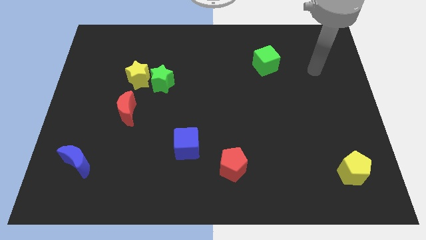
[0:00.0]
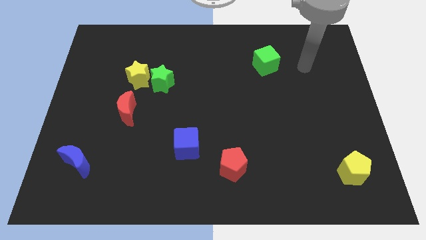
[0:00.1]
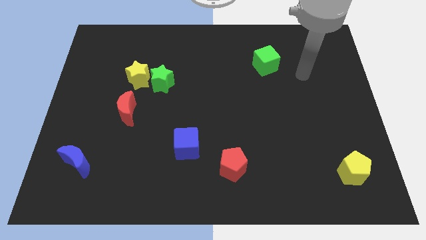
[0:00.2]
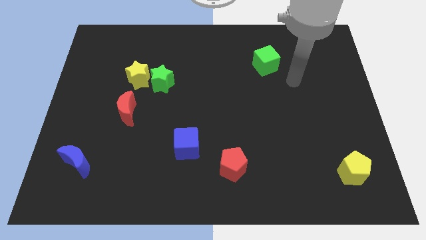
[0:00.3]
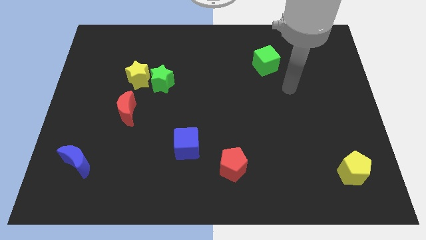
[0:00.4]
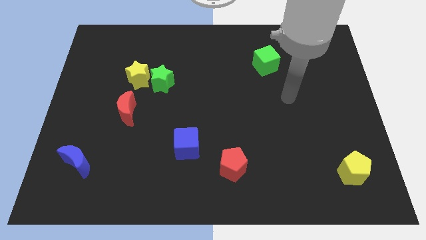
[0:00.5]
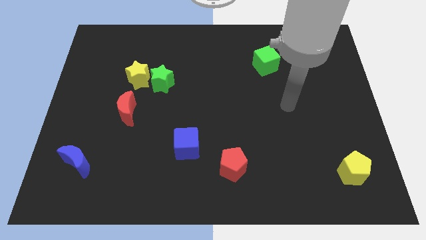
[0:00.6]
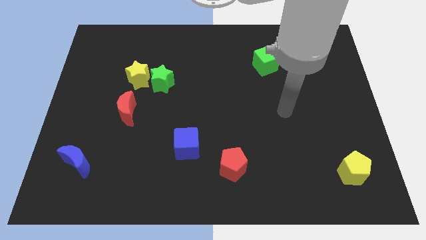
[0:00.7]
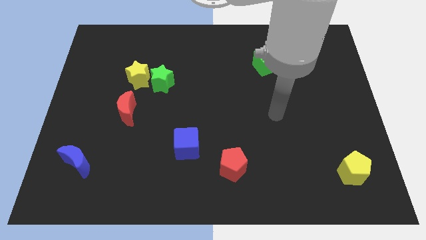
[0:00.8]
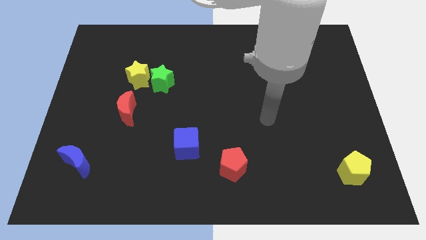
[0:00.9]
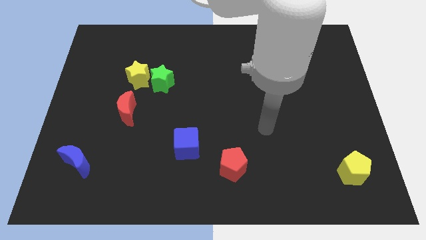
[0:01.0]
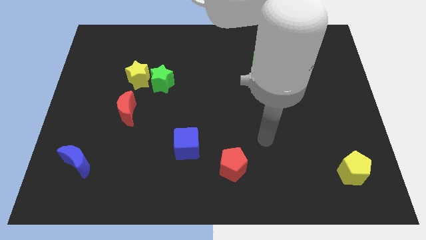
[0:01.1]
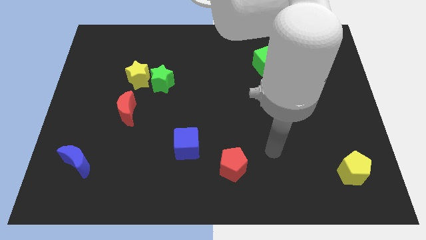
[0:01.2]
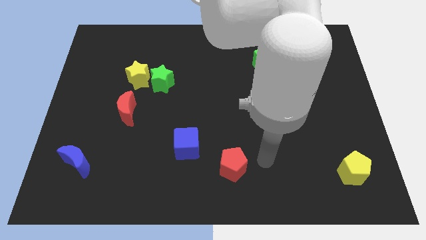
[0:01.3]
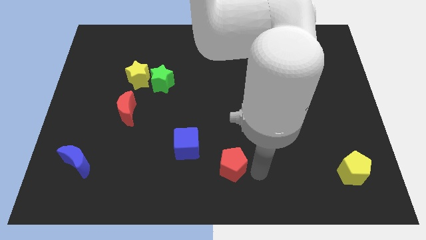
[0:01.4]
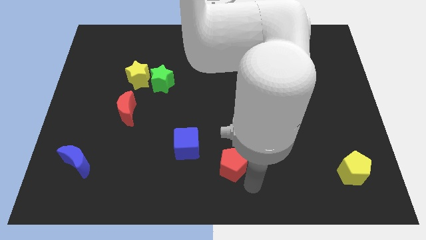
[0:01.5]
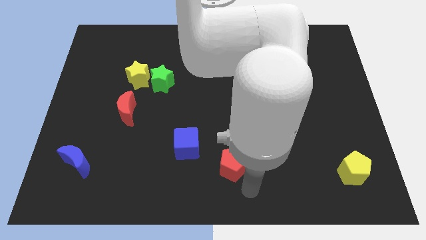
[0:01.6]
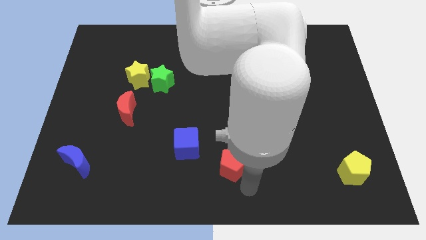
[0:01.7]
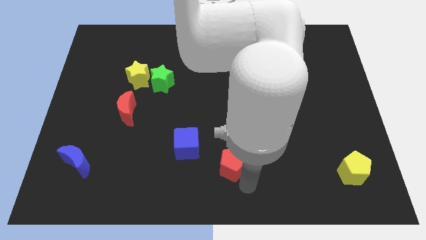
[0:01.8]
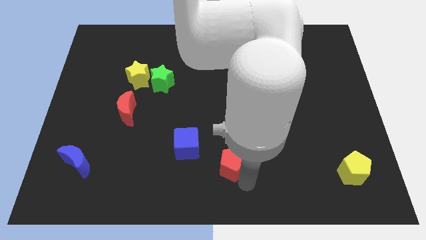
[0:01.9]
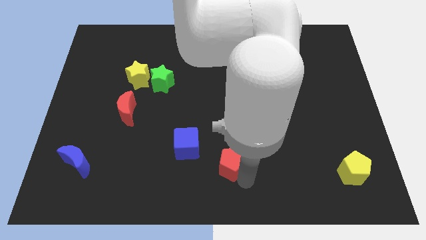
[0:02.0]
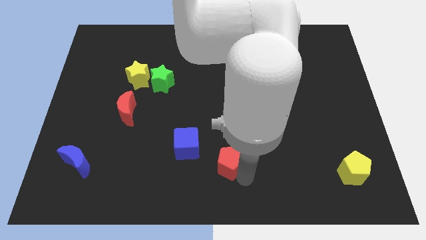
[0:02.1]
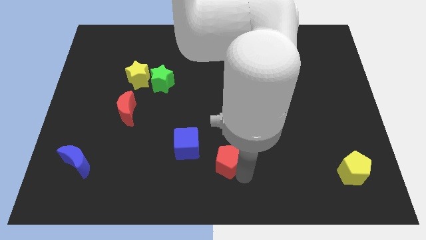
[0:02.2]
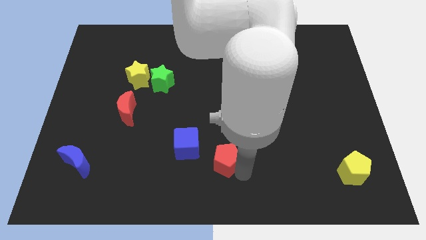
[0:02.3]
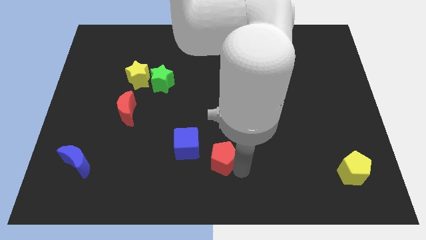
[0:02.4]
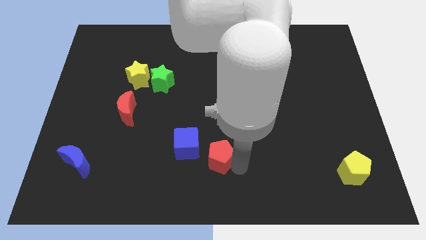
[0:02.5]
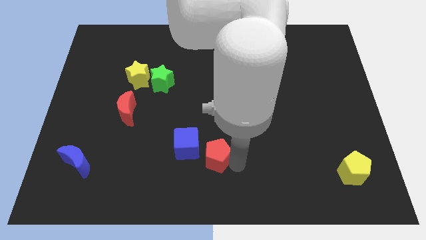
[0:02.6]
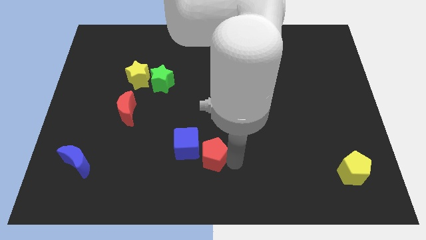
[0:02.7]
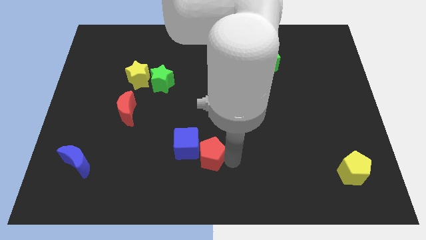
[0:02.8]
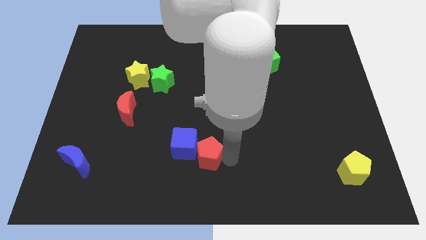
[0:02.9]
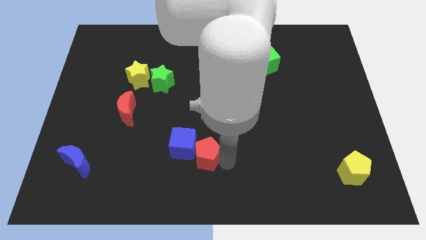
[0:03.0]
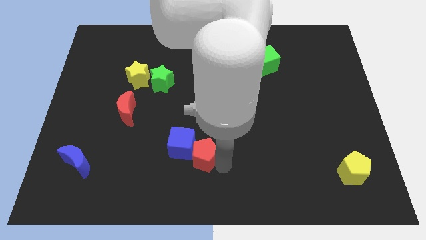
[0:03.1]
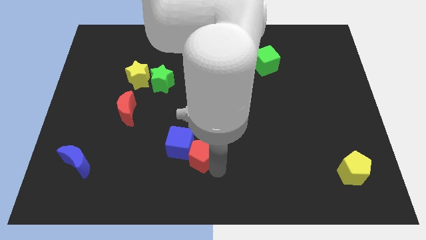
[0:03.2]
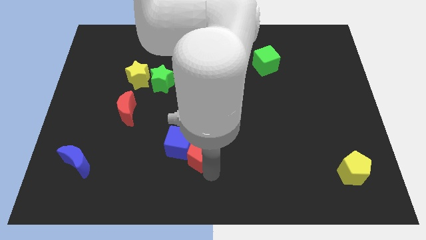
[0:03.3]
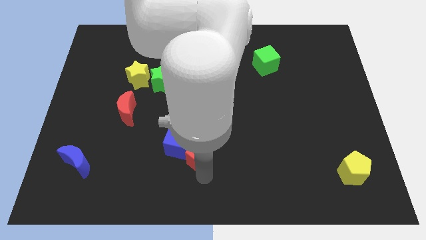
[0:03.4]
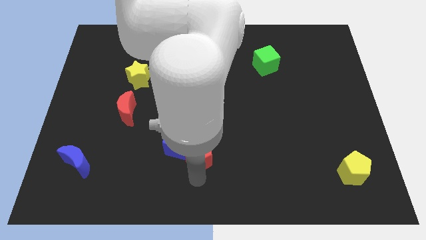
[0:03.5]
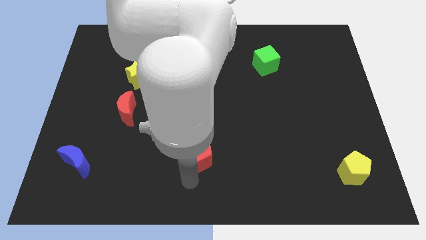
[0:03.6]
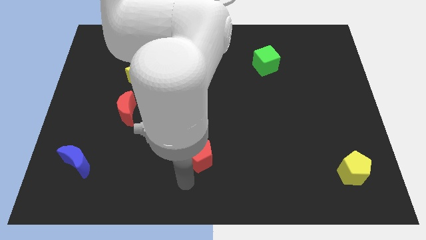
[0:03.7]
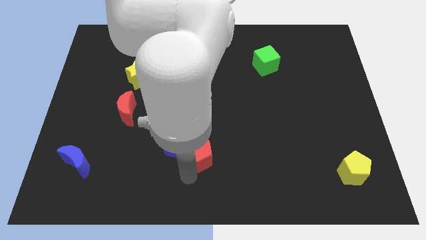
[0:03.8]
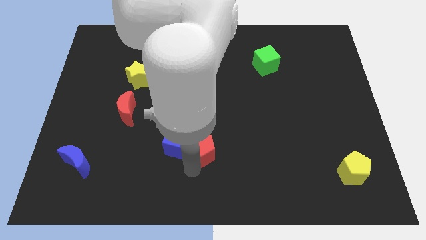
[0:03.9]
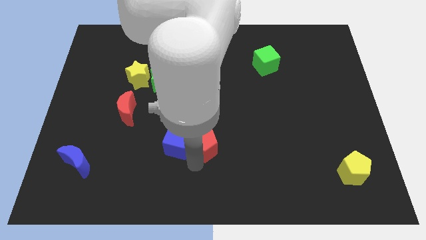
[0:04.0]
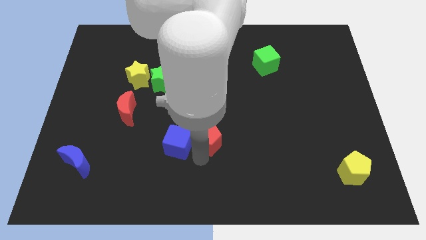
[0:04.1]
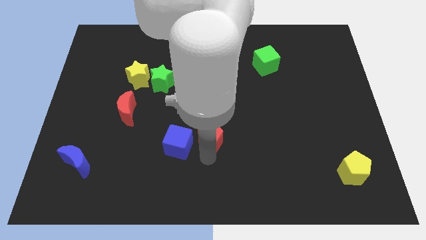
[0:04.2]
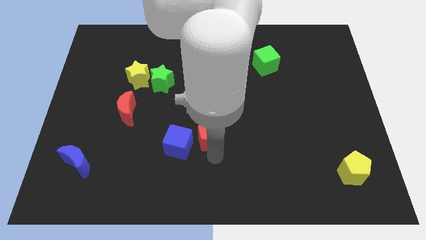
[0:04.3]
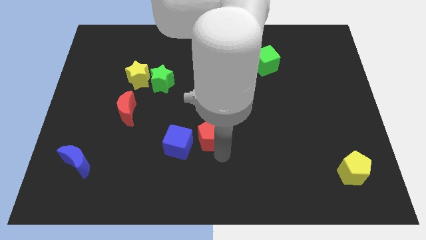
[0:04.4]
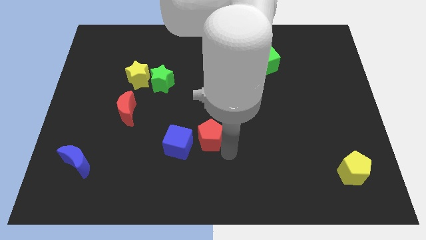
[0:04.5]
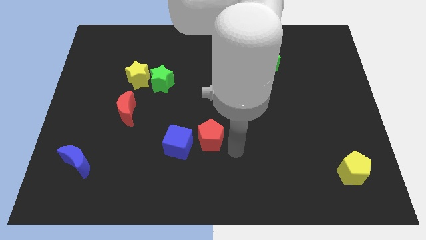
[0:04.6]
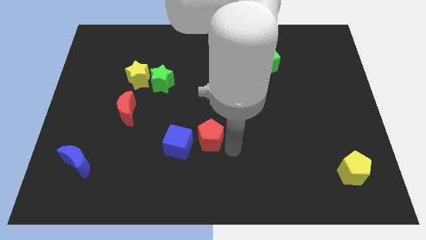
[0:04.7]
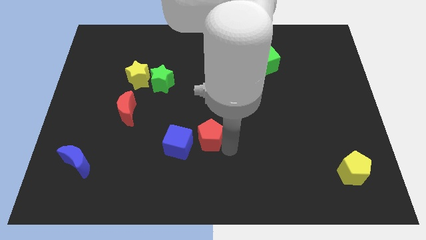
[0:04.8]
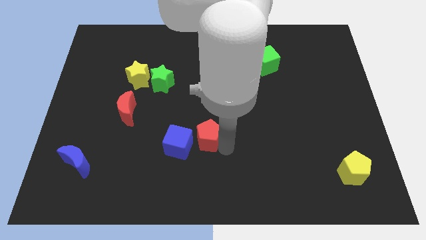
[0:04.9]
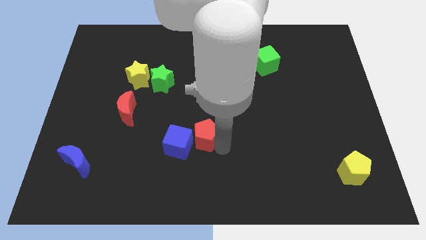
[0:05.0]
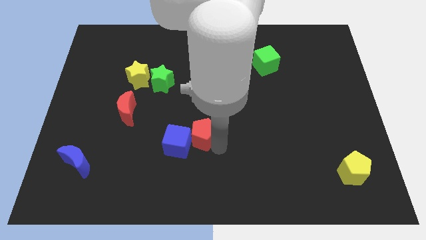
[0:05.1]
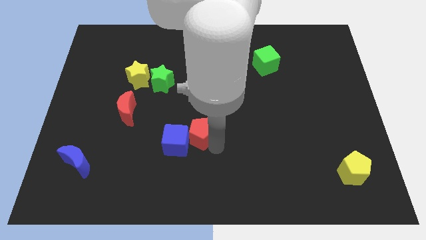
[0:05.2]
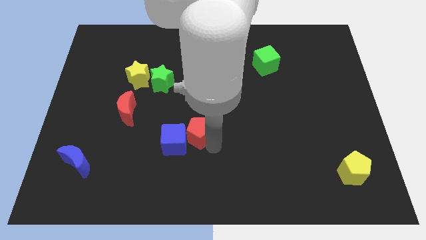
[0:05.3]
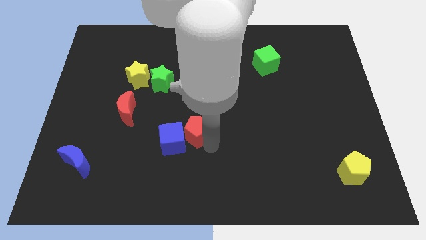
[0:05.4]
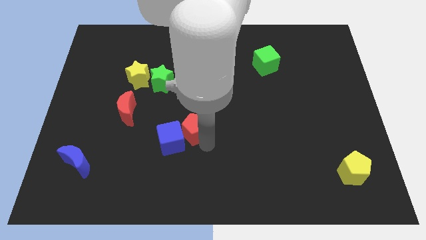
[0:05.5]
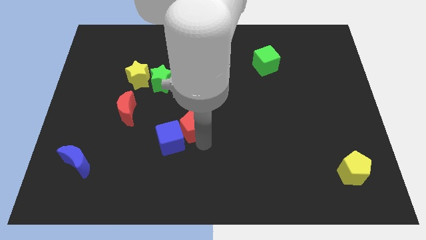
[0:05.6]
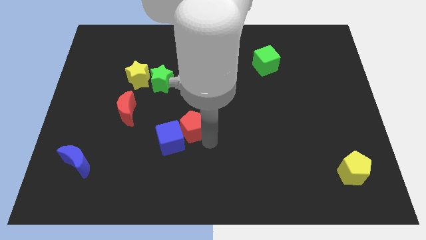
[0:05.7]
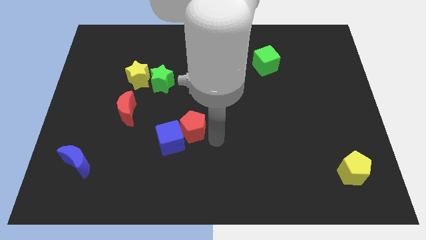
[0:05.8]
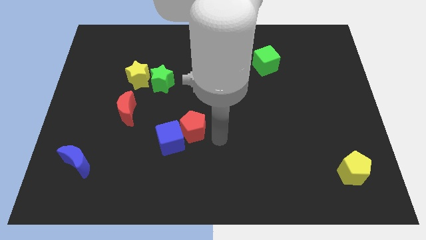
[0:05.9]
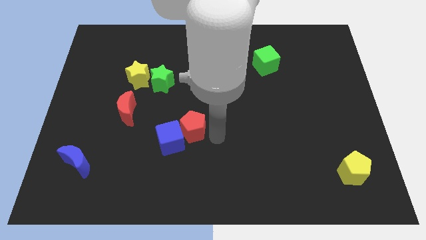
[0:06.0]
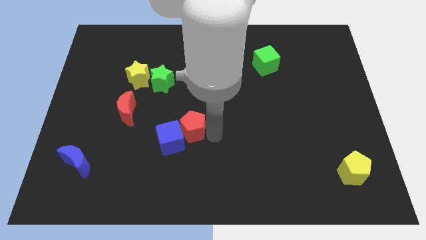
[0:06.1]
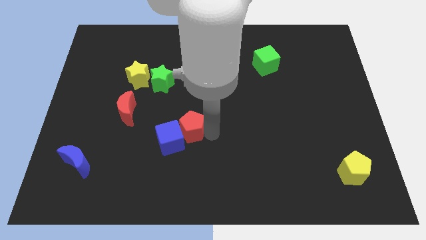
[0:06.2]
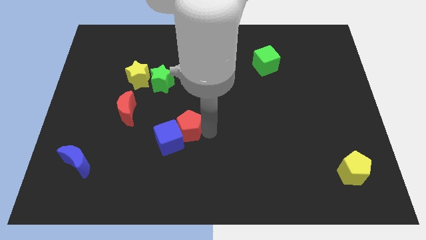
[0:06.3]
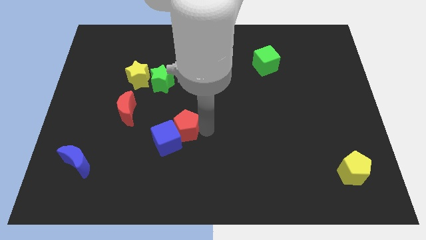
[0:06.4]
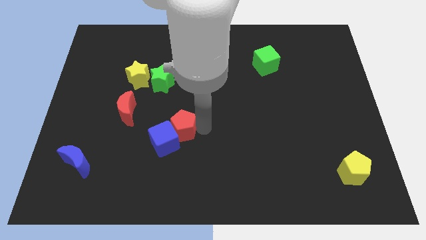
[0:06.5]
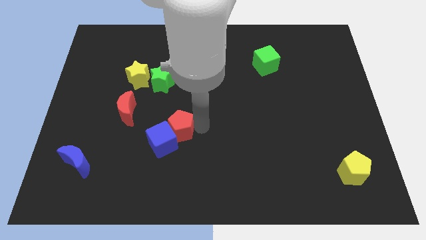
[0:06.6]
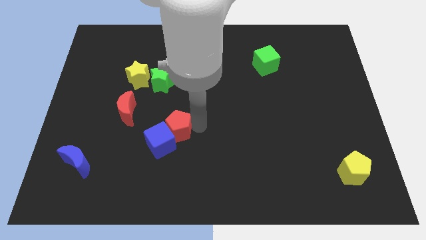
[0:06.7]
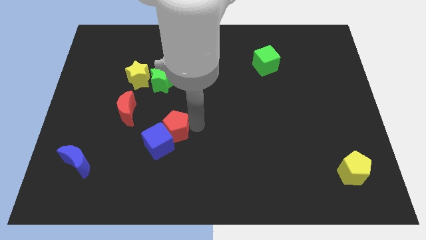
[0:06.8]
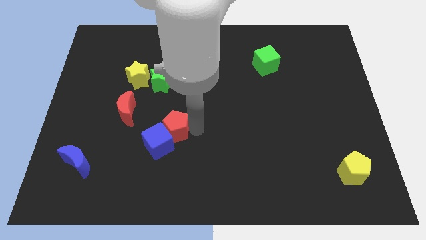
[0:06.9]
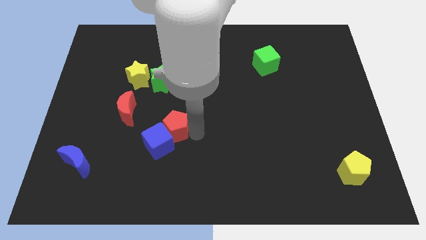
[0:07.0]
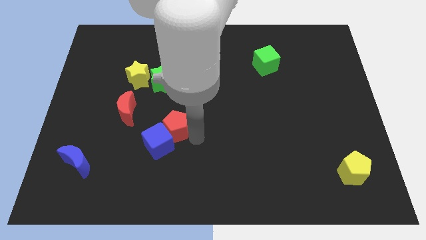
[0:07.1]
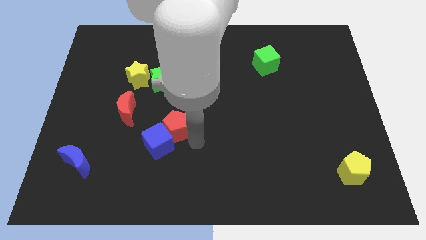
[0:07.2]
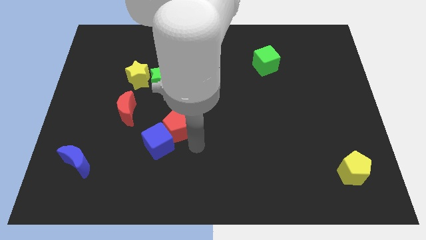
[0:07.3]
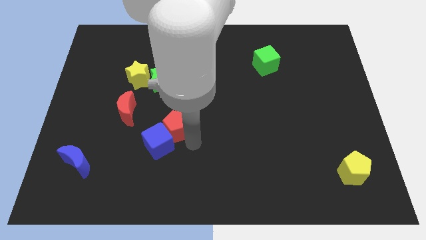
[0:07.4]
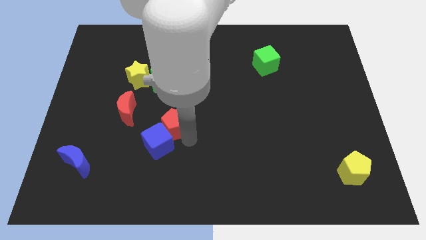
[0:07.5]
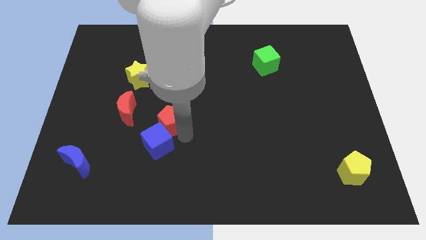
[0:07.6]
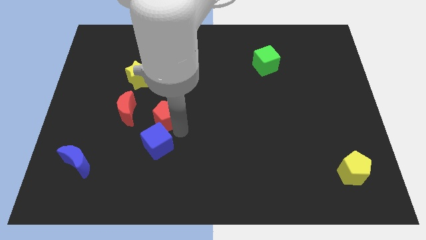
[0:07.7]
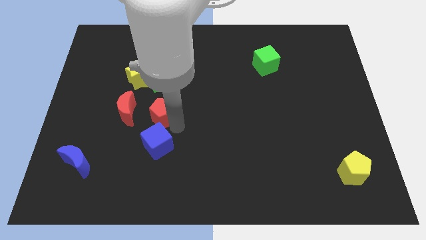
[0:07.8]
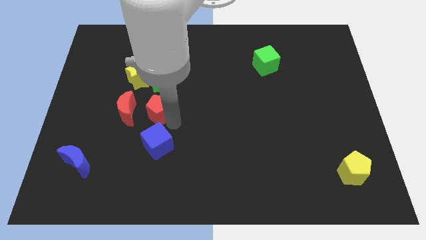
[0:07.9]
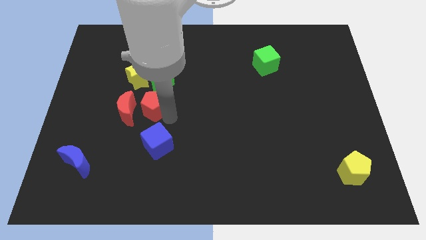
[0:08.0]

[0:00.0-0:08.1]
move the red pentagon towards the red moon
